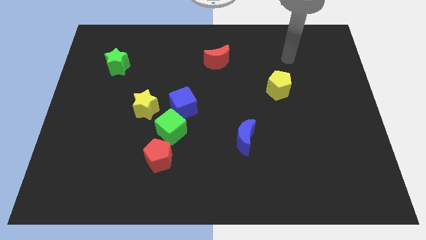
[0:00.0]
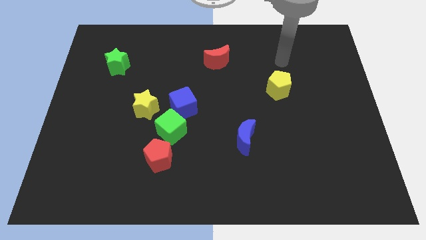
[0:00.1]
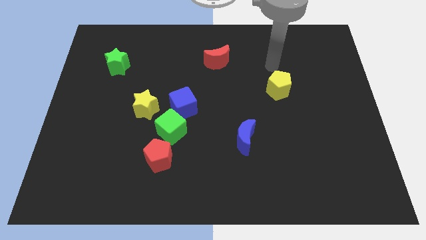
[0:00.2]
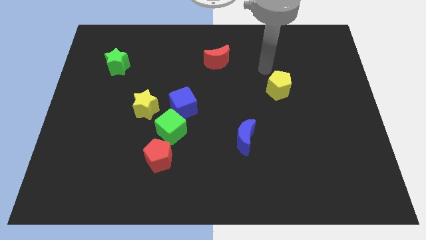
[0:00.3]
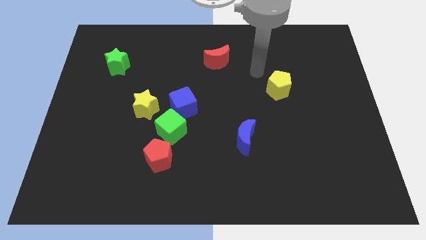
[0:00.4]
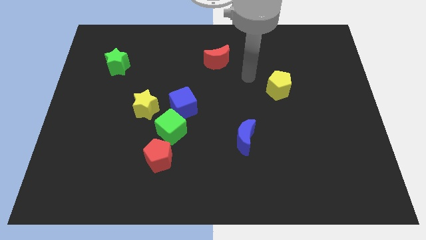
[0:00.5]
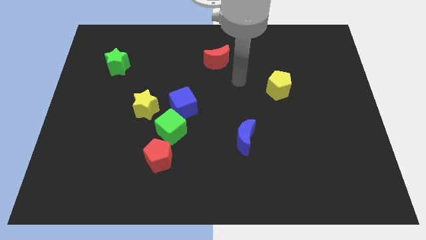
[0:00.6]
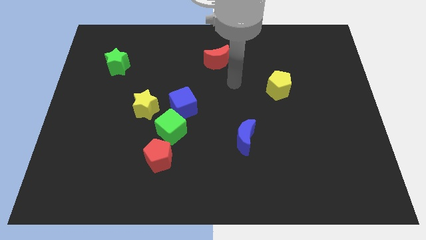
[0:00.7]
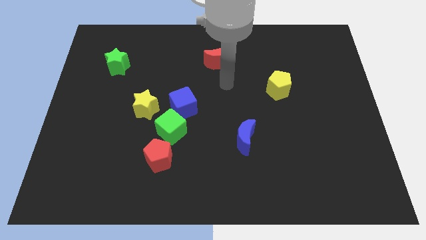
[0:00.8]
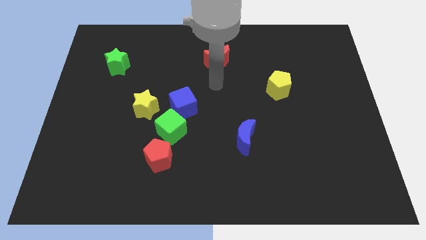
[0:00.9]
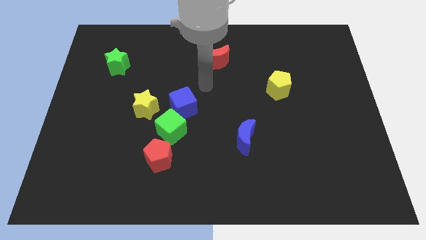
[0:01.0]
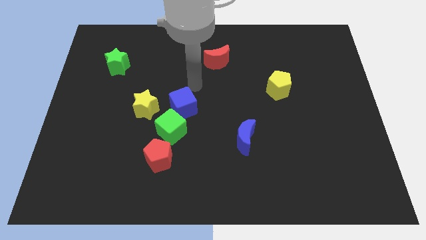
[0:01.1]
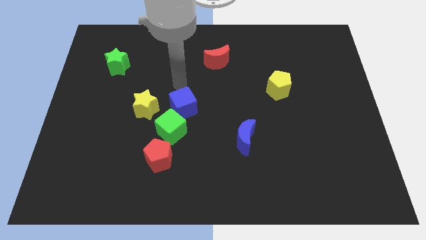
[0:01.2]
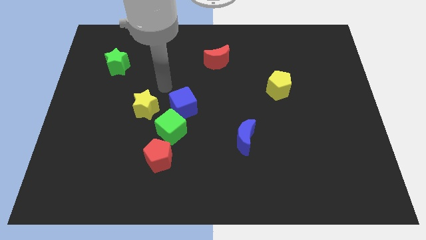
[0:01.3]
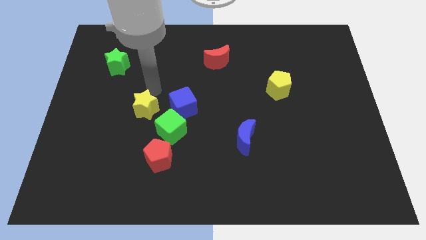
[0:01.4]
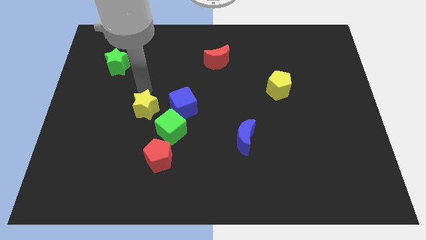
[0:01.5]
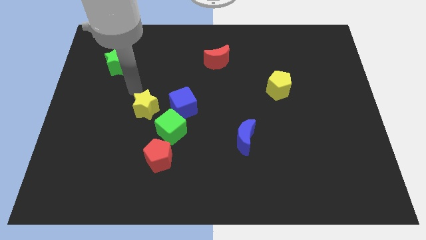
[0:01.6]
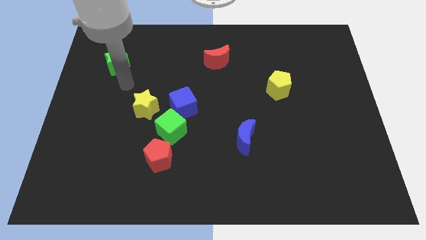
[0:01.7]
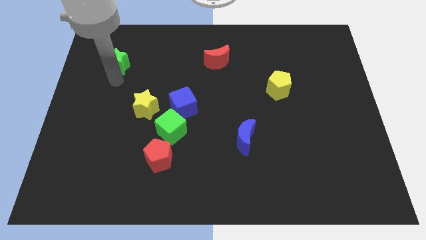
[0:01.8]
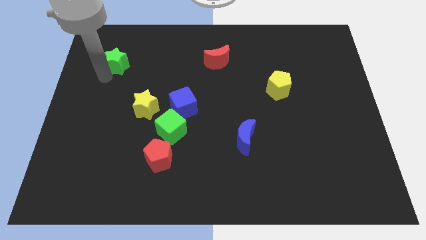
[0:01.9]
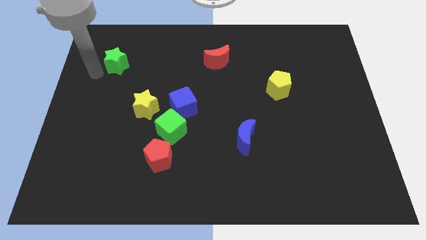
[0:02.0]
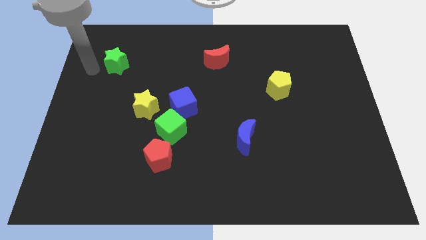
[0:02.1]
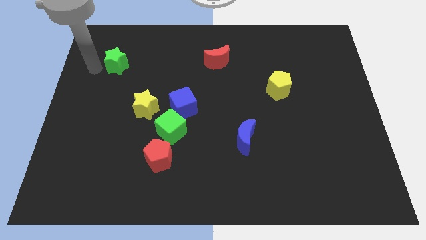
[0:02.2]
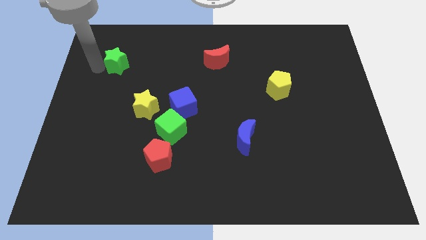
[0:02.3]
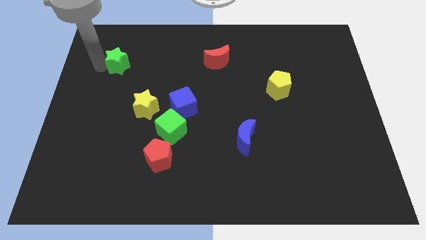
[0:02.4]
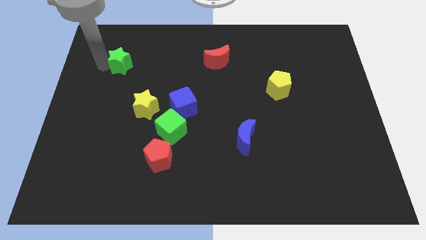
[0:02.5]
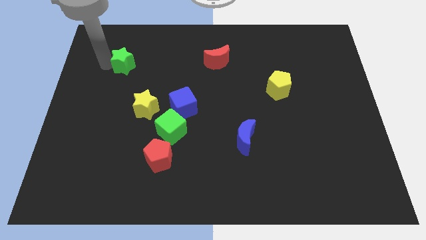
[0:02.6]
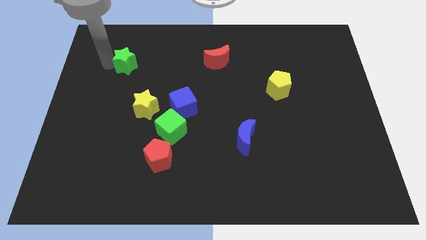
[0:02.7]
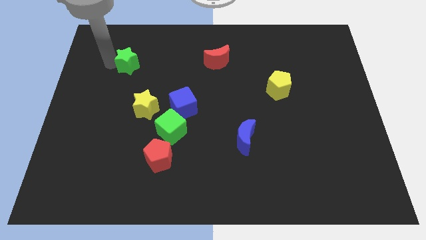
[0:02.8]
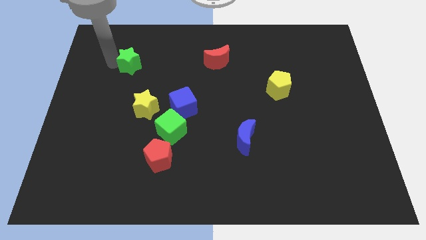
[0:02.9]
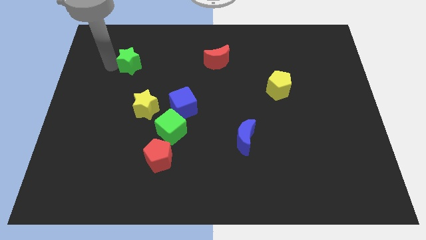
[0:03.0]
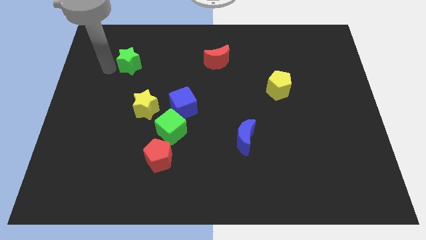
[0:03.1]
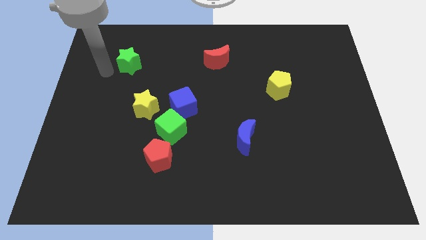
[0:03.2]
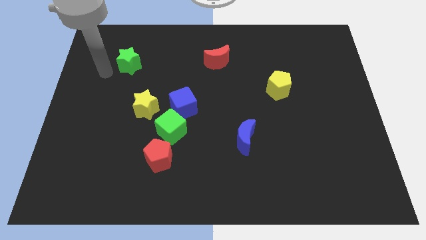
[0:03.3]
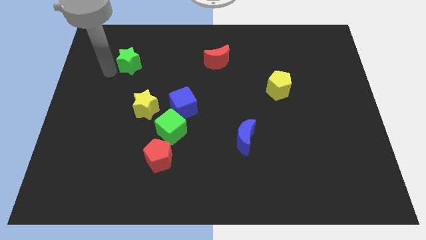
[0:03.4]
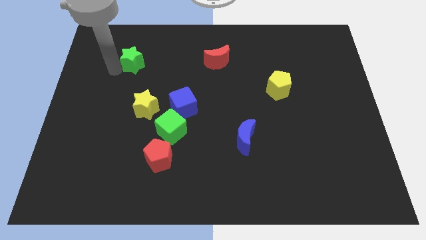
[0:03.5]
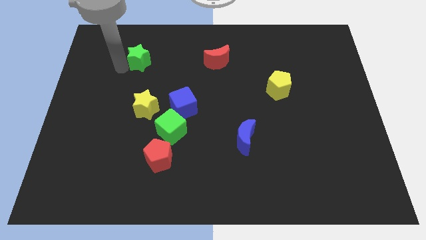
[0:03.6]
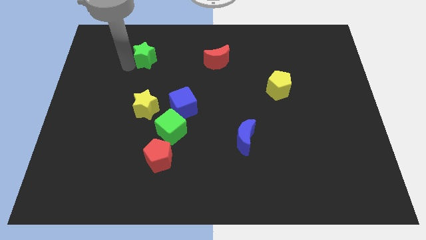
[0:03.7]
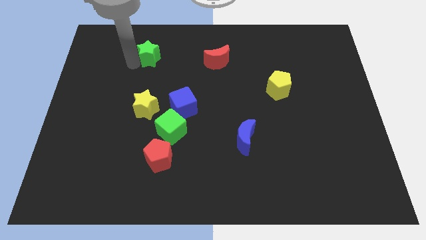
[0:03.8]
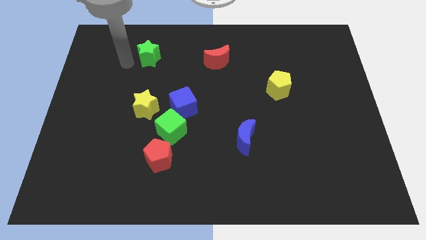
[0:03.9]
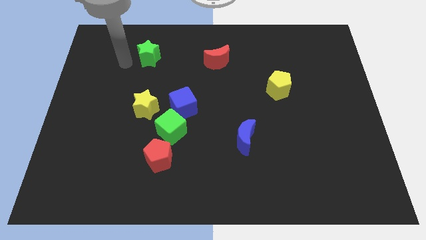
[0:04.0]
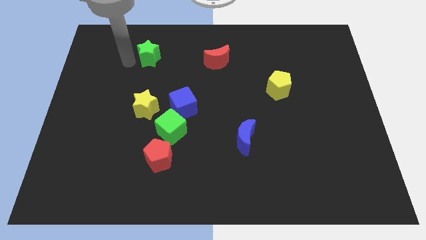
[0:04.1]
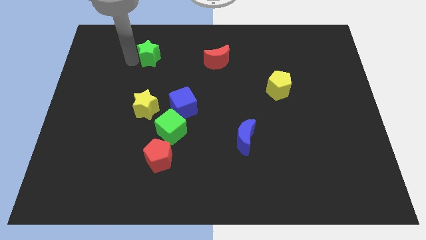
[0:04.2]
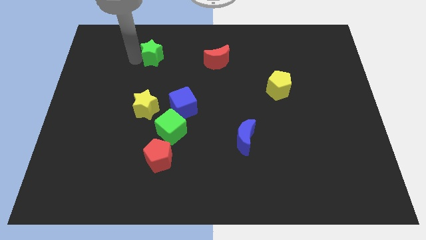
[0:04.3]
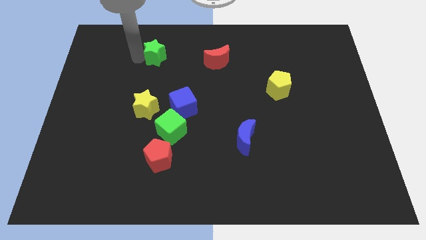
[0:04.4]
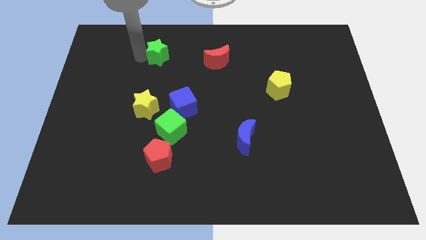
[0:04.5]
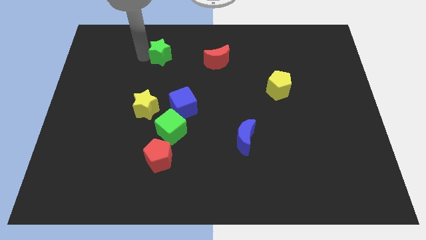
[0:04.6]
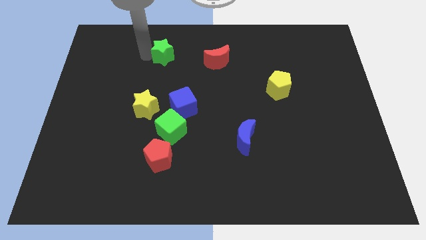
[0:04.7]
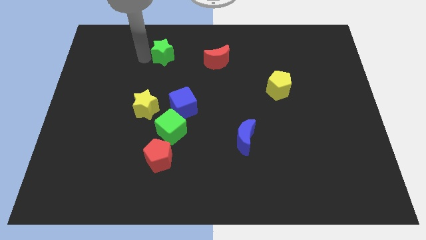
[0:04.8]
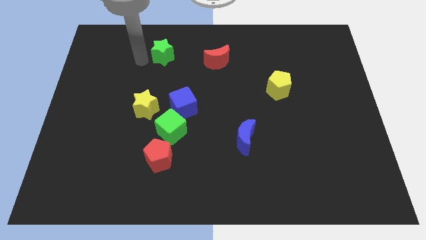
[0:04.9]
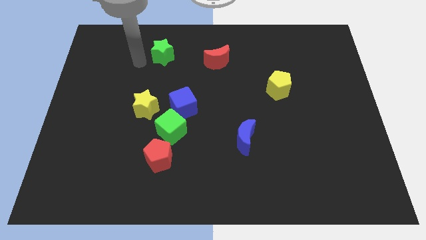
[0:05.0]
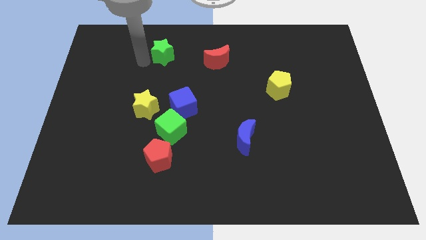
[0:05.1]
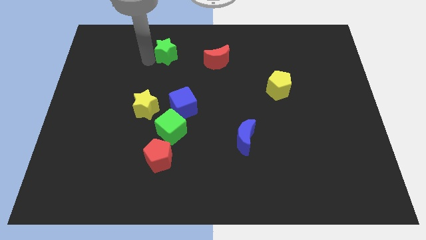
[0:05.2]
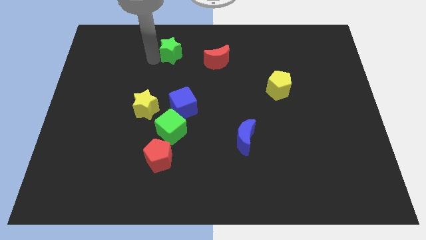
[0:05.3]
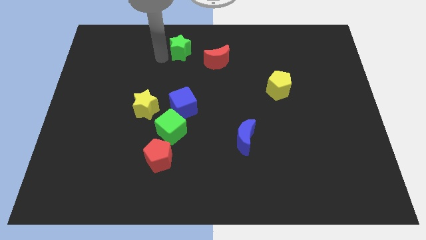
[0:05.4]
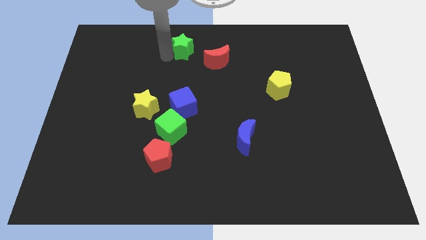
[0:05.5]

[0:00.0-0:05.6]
slide the green star to the top side

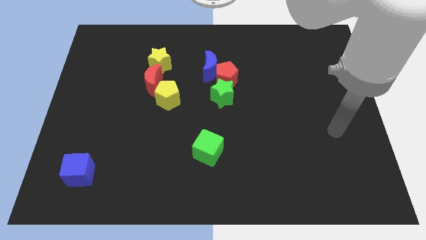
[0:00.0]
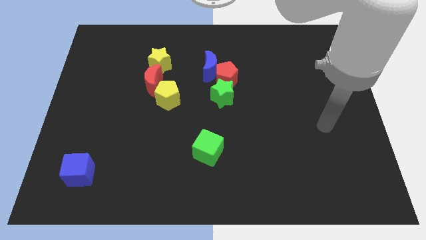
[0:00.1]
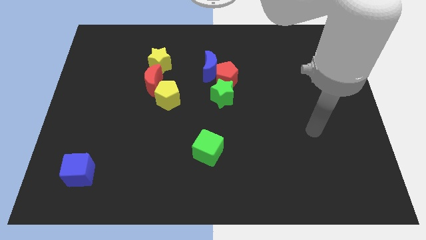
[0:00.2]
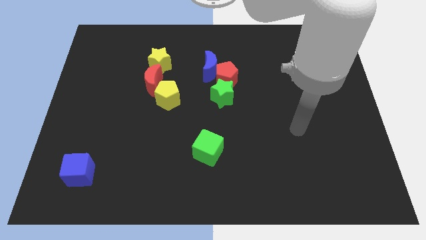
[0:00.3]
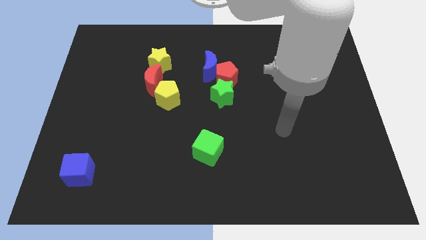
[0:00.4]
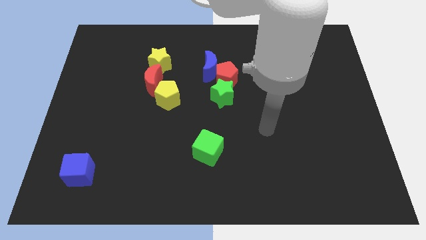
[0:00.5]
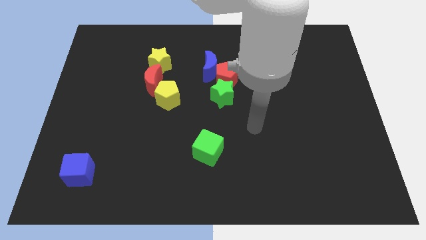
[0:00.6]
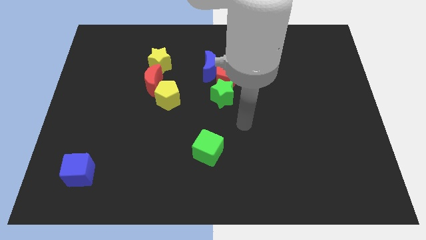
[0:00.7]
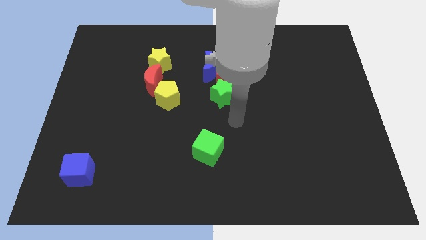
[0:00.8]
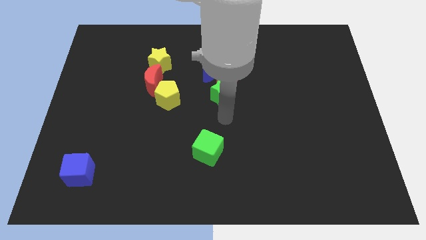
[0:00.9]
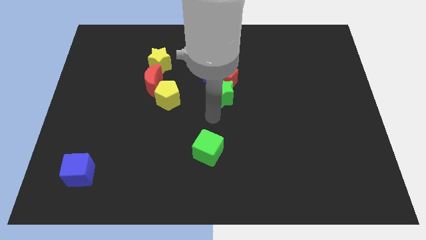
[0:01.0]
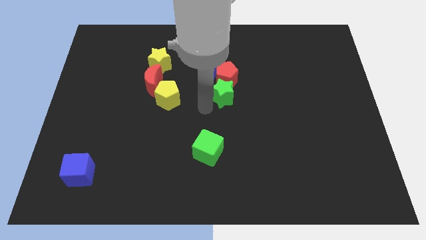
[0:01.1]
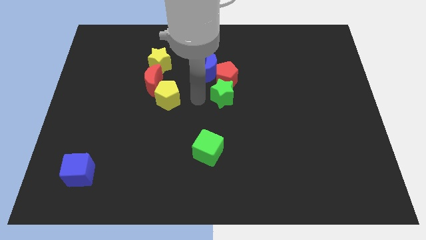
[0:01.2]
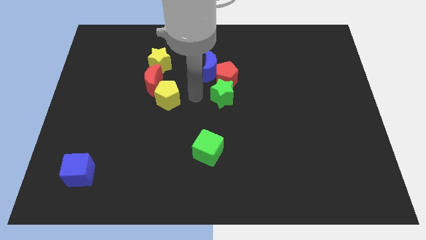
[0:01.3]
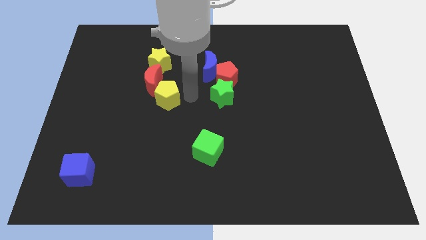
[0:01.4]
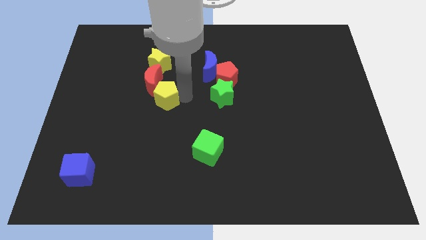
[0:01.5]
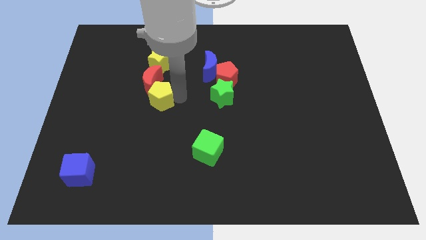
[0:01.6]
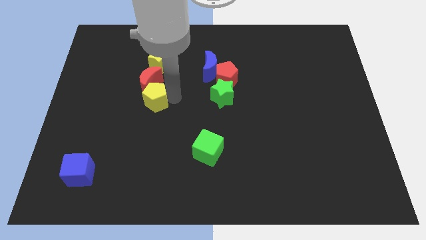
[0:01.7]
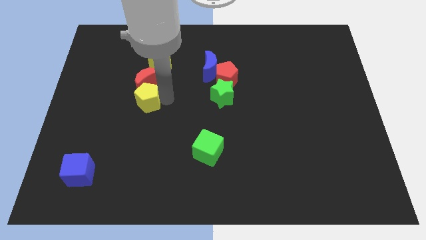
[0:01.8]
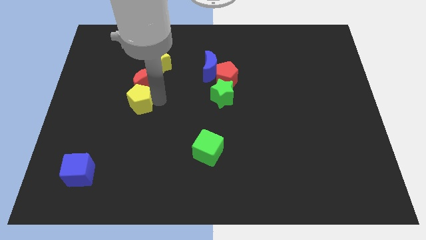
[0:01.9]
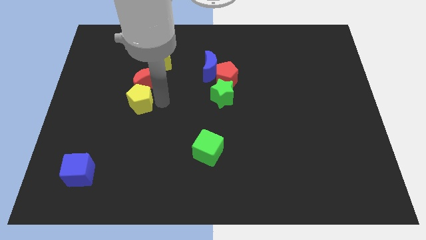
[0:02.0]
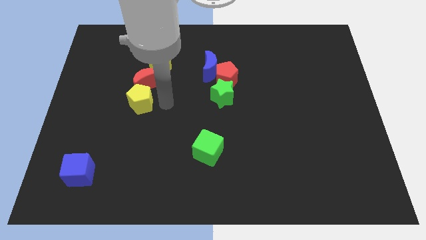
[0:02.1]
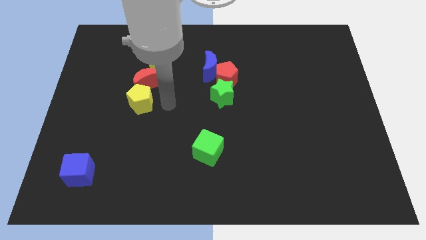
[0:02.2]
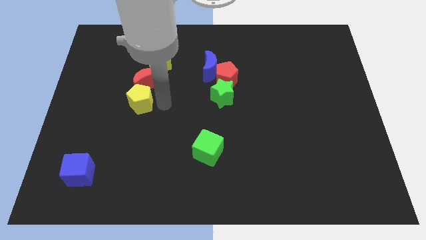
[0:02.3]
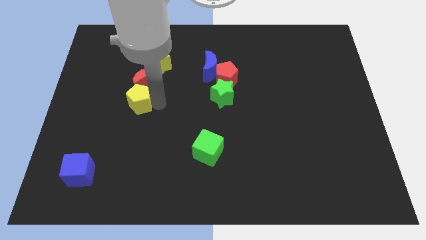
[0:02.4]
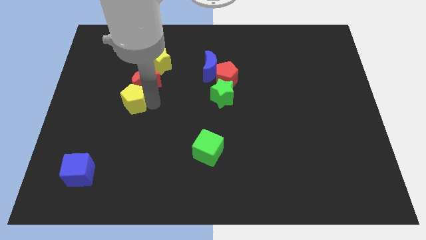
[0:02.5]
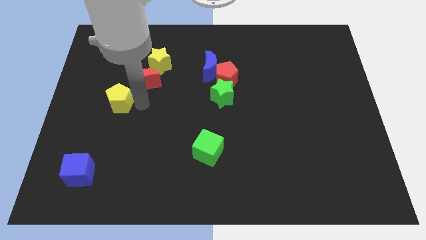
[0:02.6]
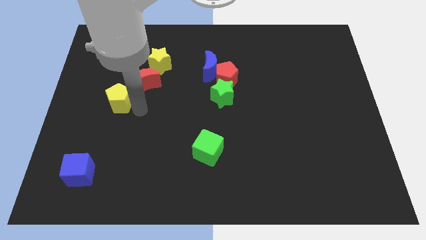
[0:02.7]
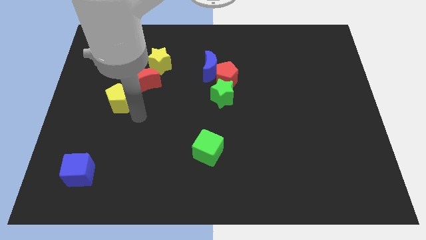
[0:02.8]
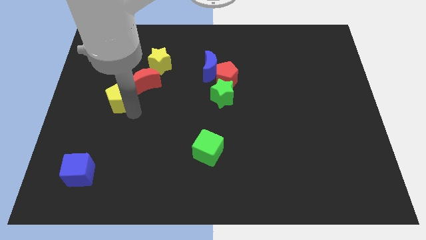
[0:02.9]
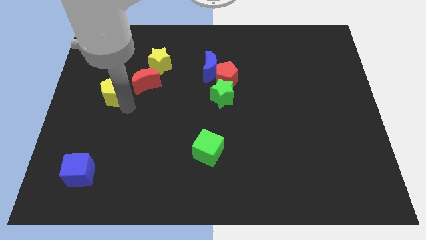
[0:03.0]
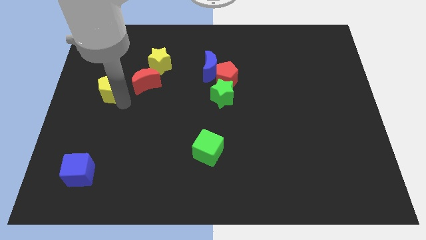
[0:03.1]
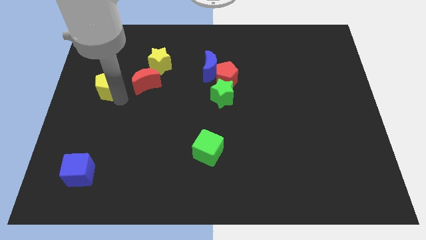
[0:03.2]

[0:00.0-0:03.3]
put the yellow pentagon to the left side
